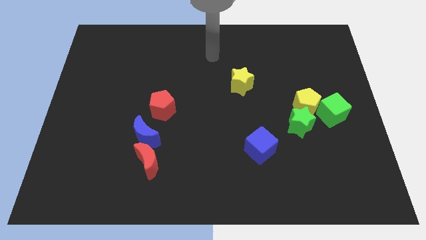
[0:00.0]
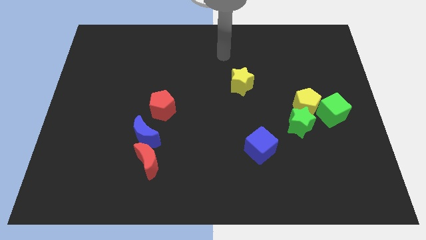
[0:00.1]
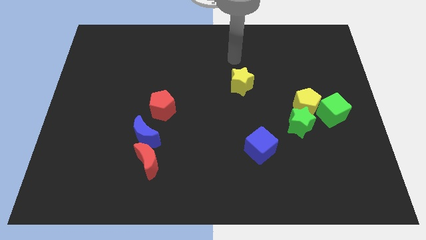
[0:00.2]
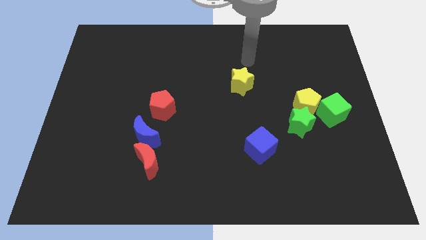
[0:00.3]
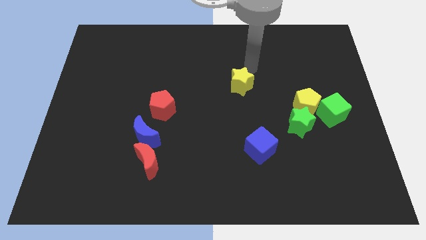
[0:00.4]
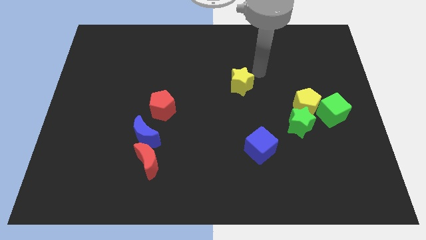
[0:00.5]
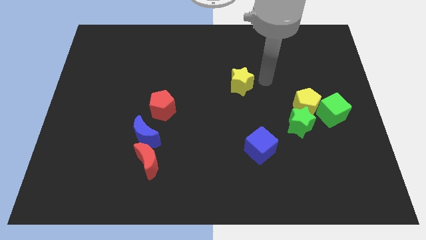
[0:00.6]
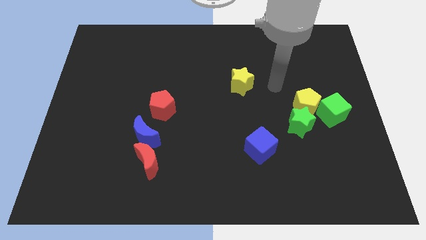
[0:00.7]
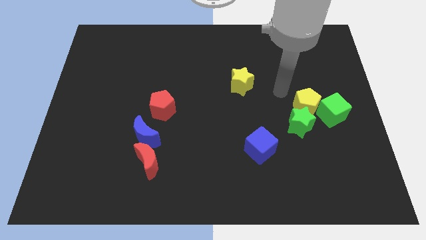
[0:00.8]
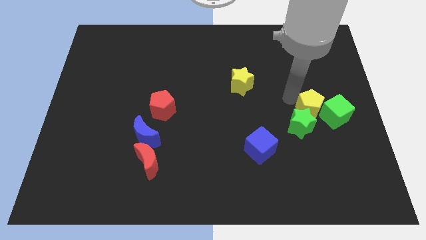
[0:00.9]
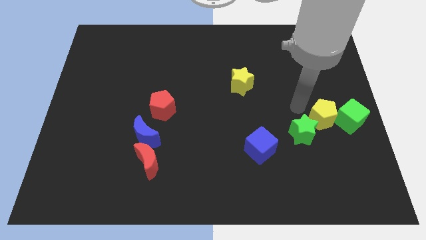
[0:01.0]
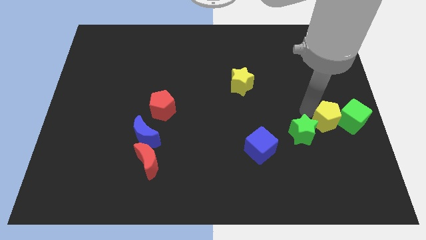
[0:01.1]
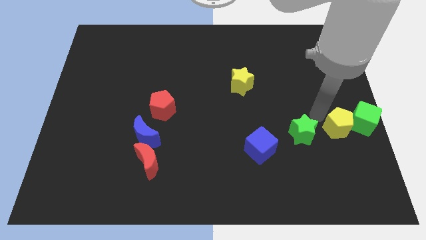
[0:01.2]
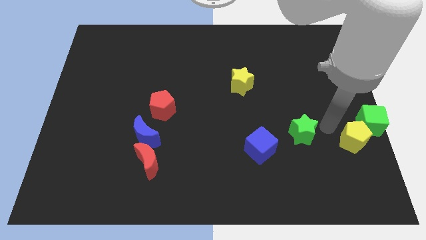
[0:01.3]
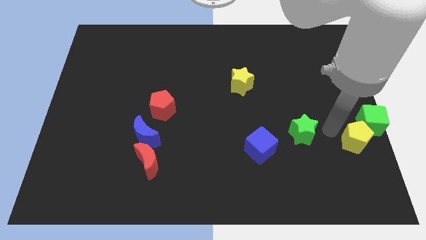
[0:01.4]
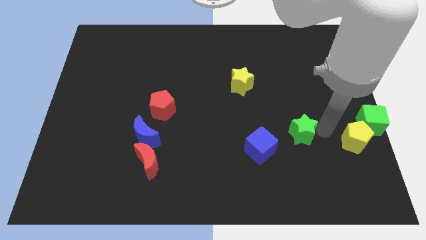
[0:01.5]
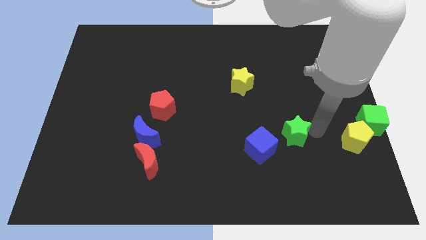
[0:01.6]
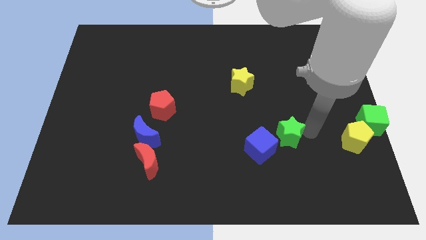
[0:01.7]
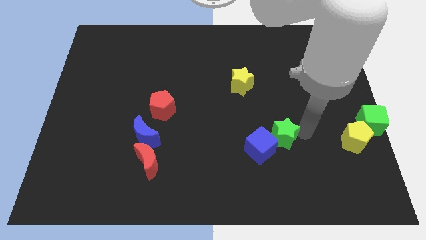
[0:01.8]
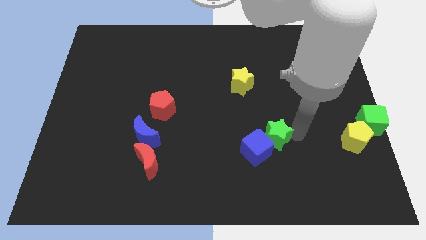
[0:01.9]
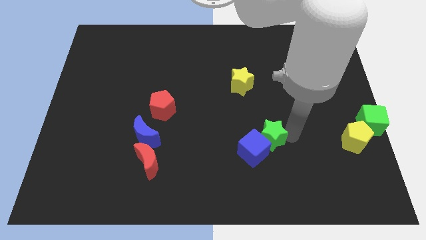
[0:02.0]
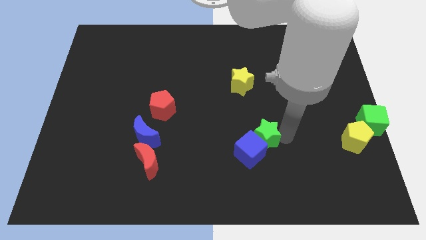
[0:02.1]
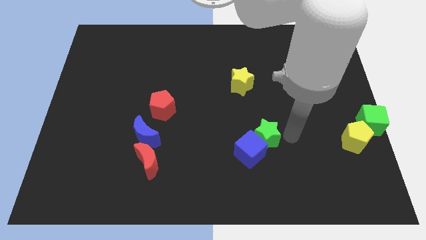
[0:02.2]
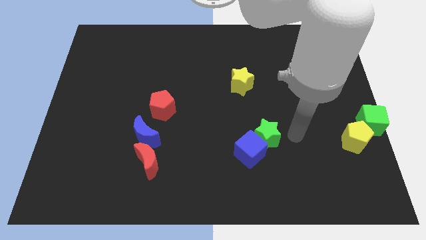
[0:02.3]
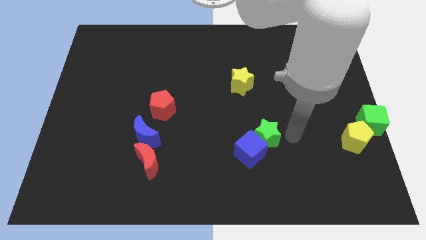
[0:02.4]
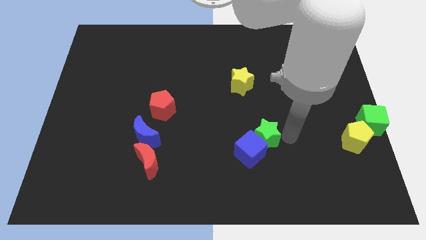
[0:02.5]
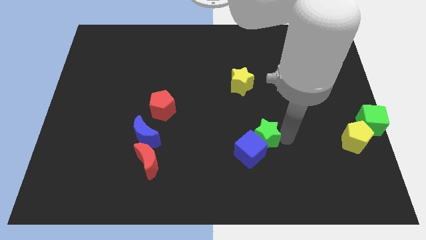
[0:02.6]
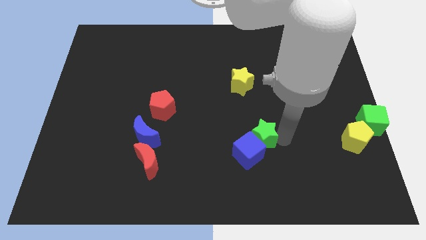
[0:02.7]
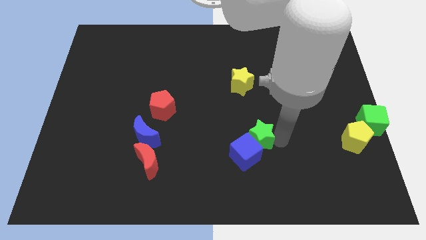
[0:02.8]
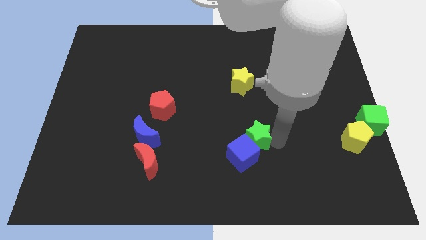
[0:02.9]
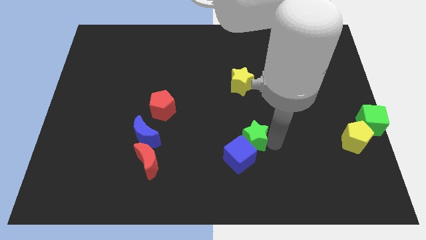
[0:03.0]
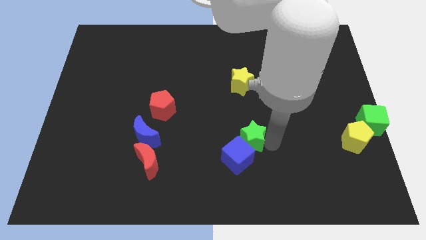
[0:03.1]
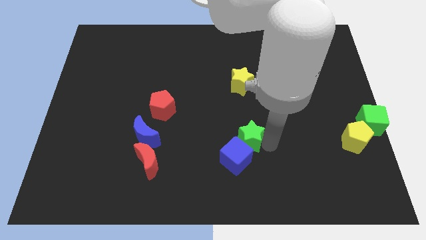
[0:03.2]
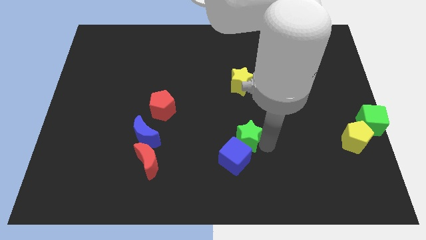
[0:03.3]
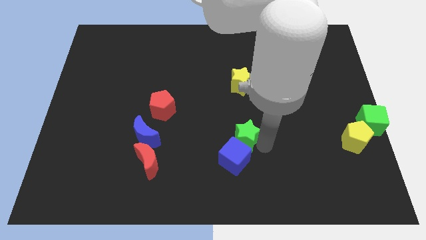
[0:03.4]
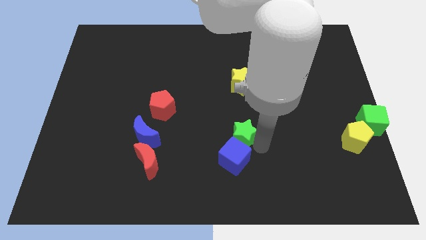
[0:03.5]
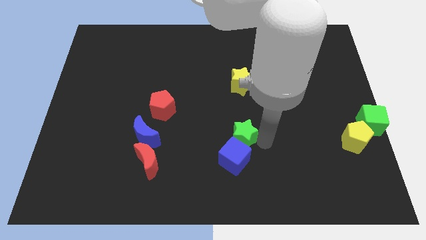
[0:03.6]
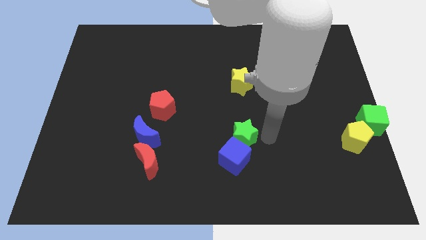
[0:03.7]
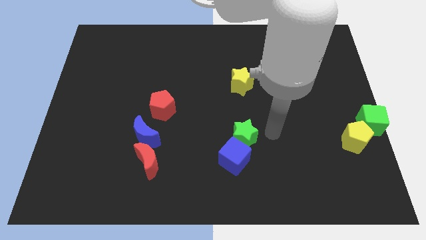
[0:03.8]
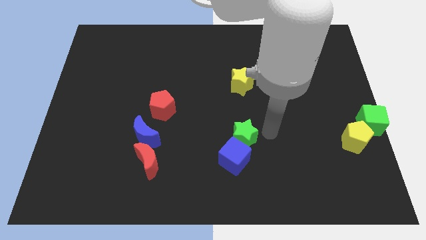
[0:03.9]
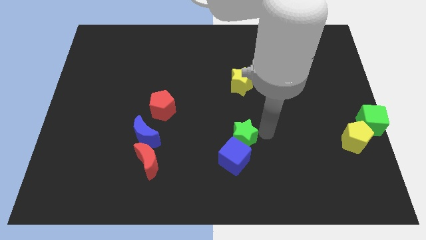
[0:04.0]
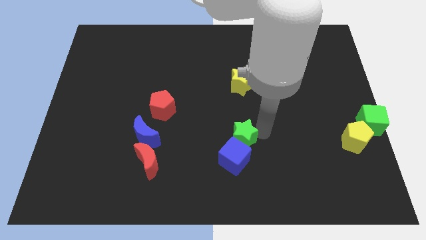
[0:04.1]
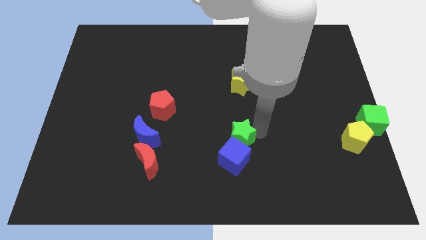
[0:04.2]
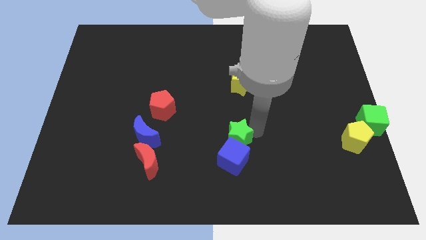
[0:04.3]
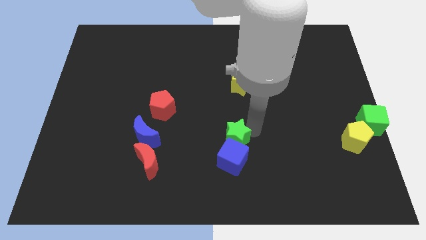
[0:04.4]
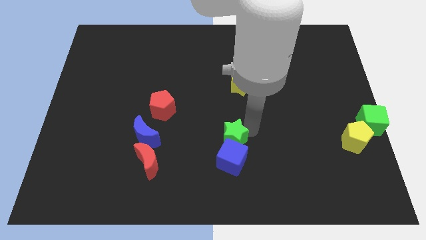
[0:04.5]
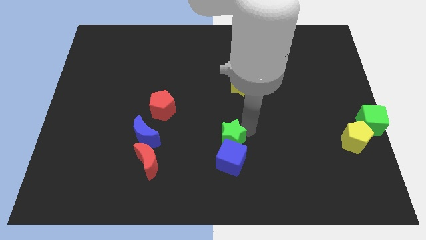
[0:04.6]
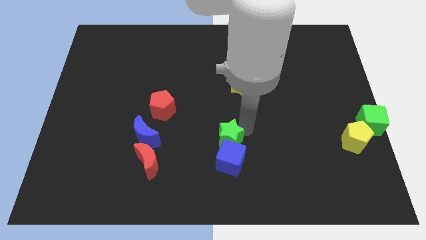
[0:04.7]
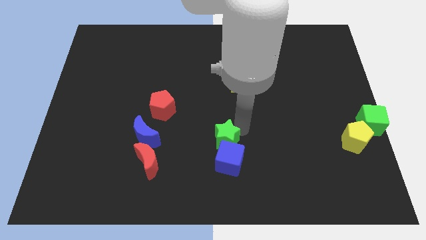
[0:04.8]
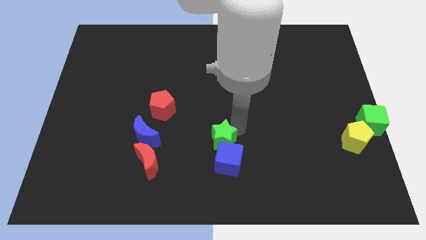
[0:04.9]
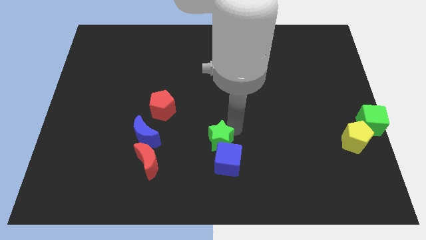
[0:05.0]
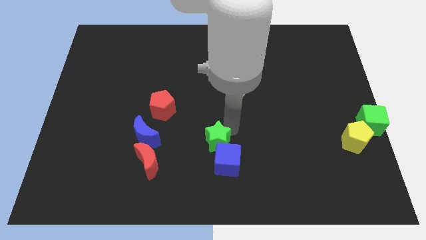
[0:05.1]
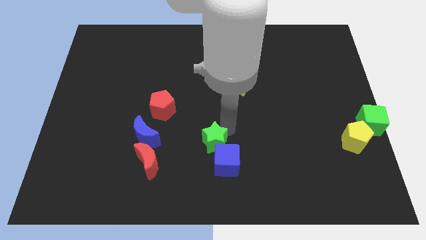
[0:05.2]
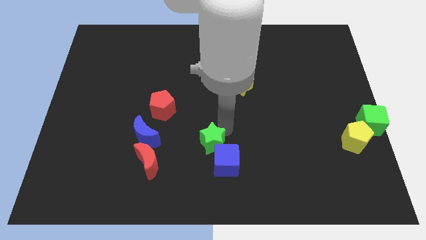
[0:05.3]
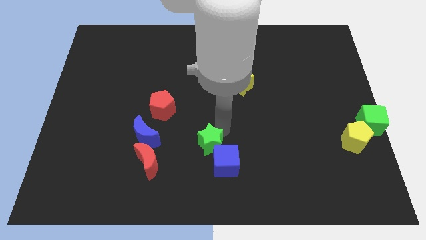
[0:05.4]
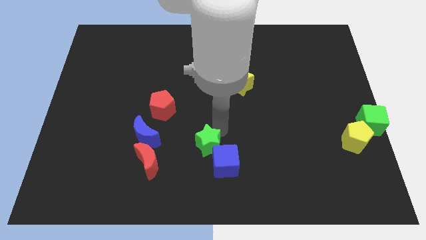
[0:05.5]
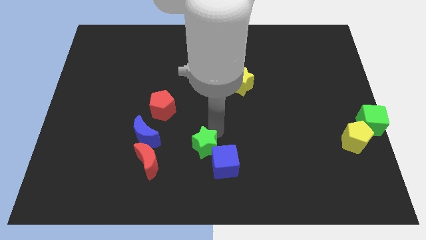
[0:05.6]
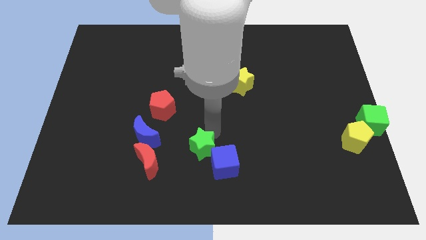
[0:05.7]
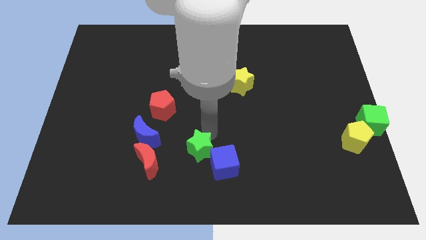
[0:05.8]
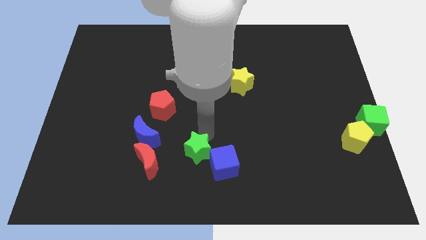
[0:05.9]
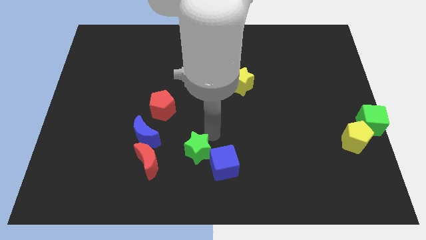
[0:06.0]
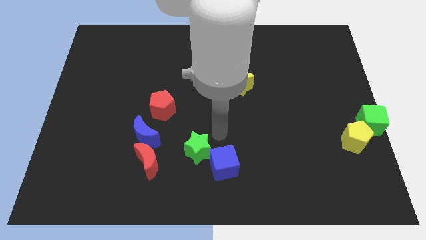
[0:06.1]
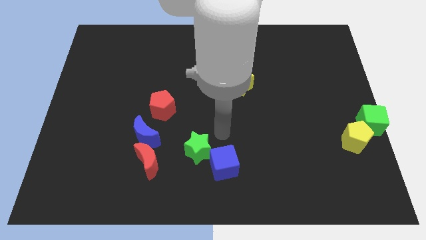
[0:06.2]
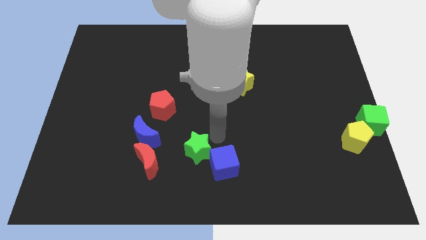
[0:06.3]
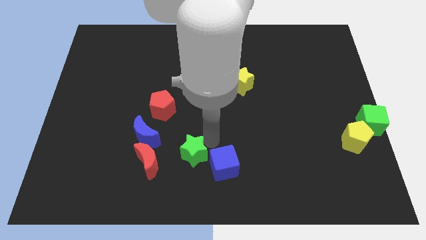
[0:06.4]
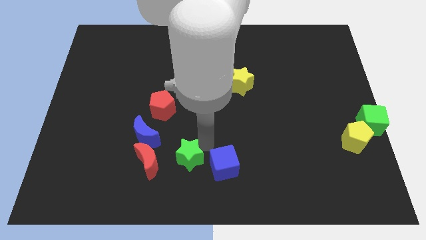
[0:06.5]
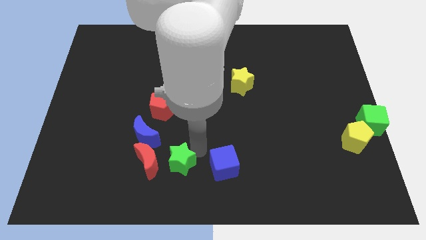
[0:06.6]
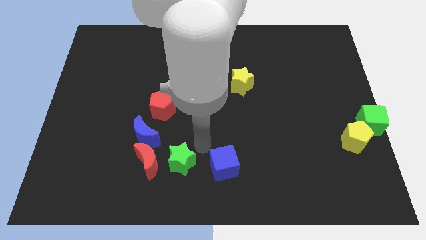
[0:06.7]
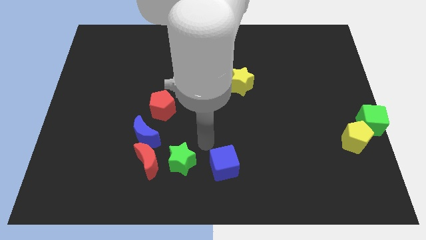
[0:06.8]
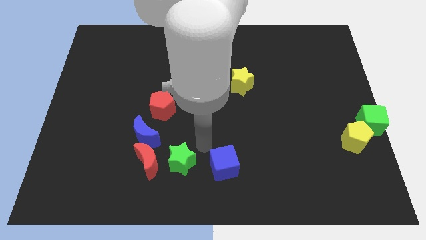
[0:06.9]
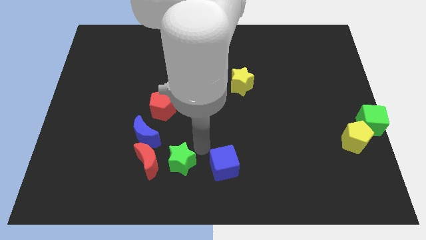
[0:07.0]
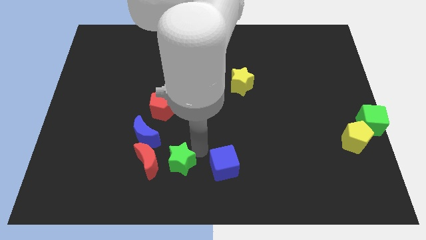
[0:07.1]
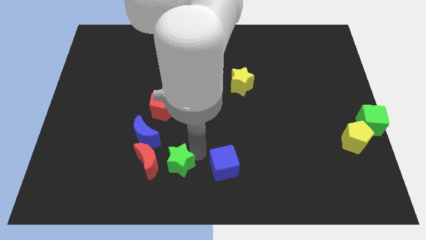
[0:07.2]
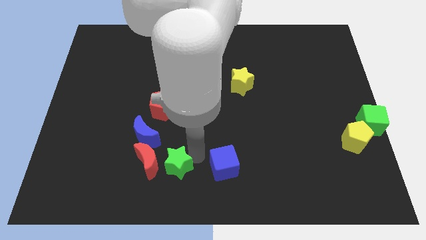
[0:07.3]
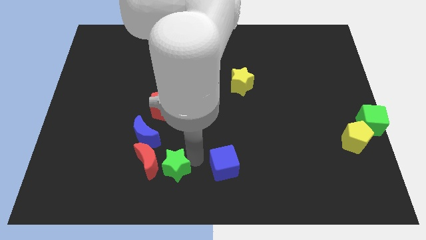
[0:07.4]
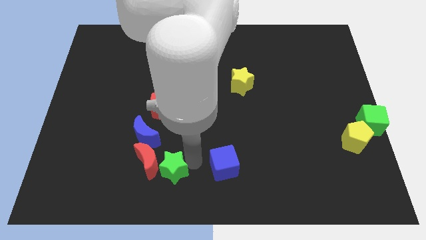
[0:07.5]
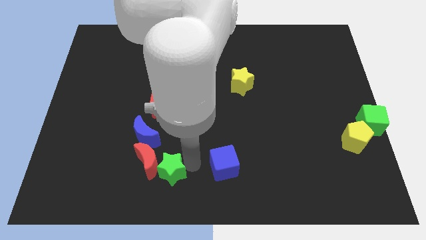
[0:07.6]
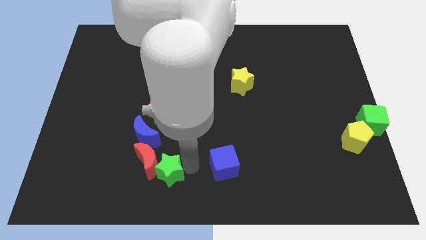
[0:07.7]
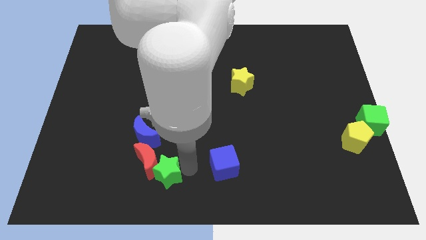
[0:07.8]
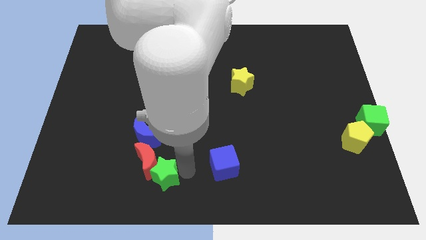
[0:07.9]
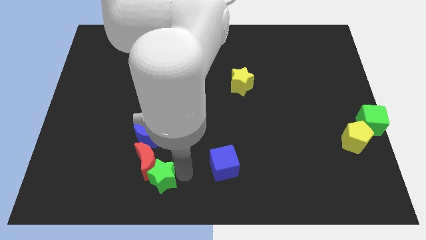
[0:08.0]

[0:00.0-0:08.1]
push the green star below the blue moon
